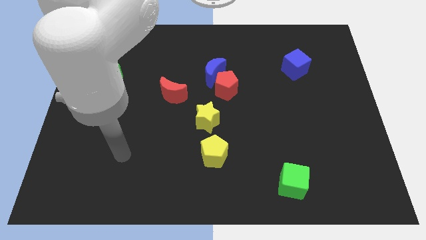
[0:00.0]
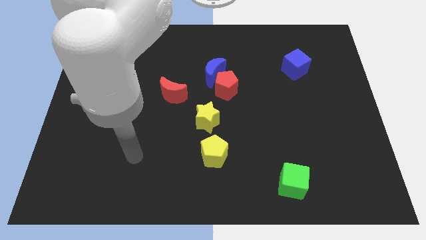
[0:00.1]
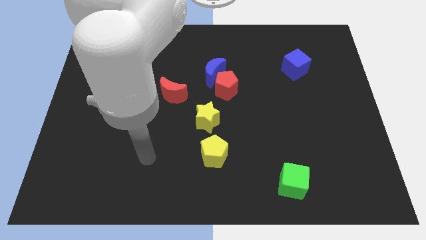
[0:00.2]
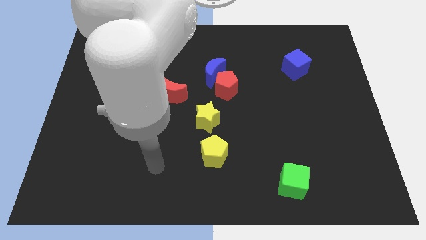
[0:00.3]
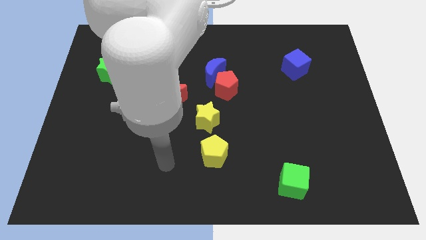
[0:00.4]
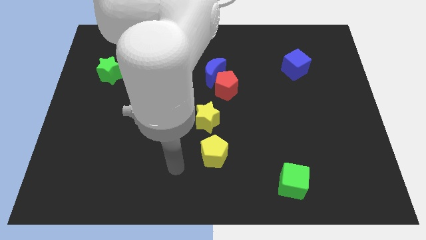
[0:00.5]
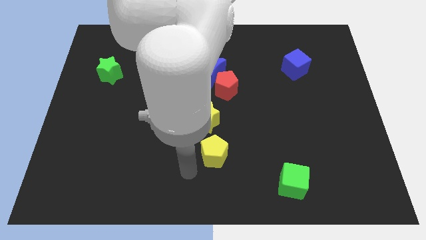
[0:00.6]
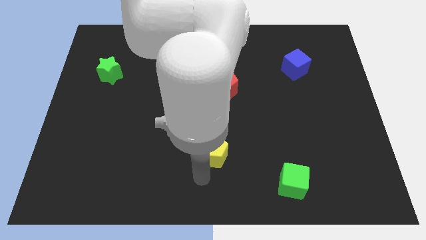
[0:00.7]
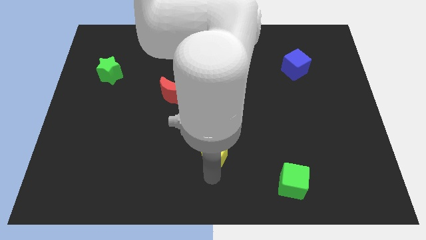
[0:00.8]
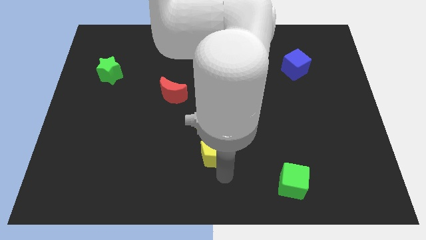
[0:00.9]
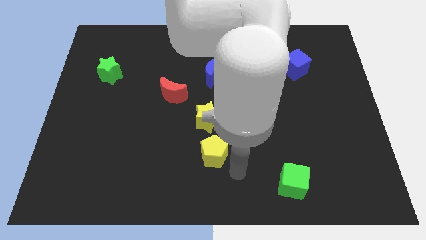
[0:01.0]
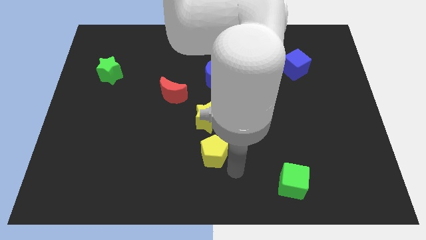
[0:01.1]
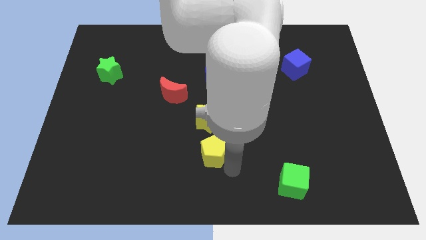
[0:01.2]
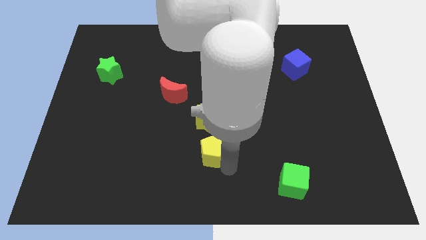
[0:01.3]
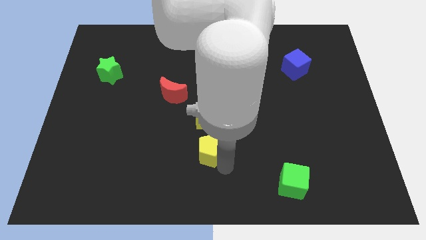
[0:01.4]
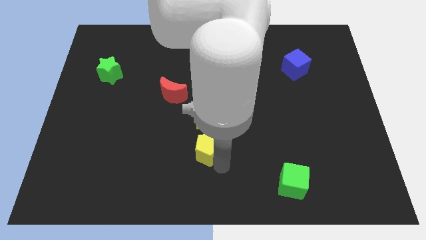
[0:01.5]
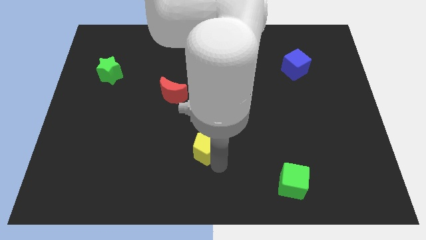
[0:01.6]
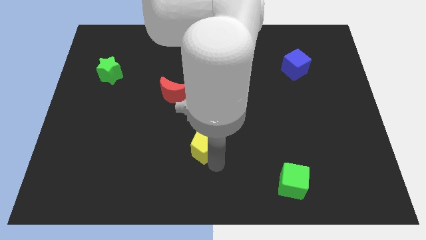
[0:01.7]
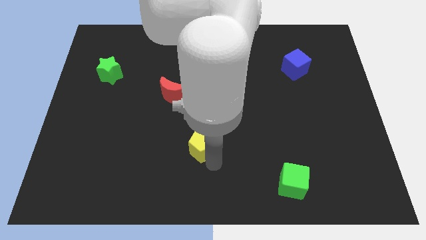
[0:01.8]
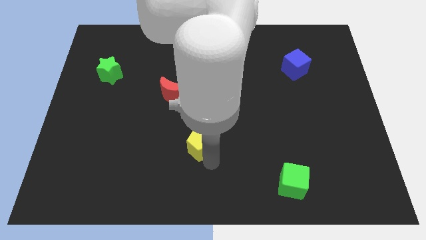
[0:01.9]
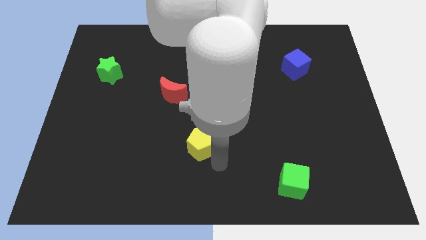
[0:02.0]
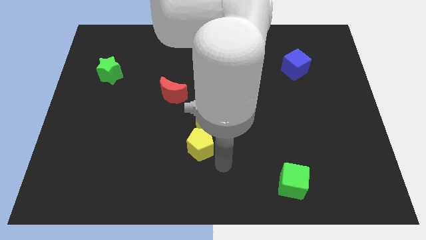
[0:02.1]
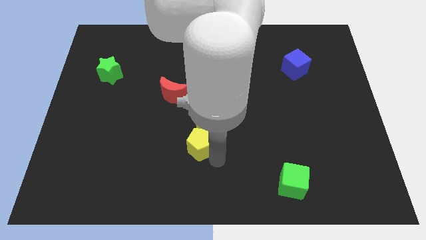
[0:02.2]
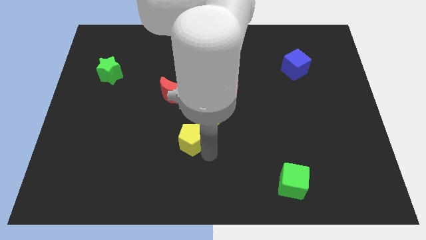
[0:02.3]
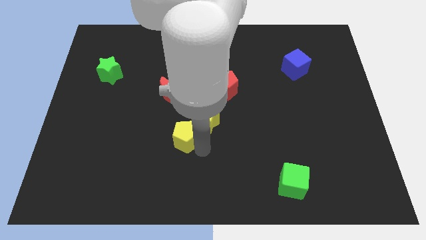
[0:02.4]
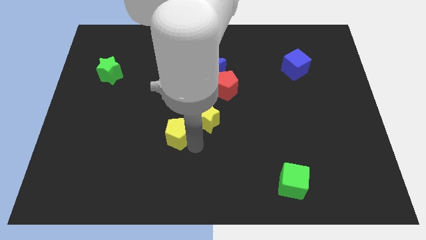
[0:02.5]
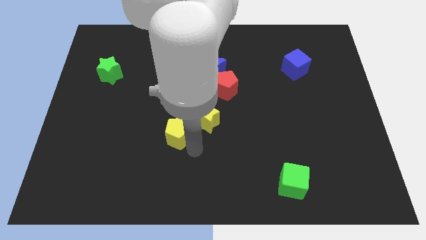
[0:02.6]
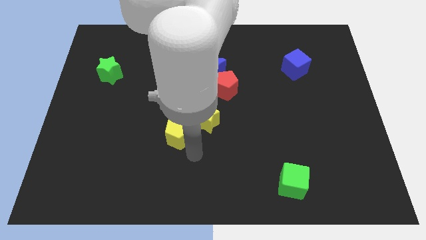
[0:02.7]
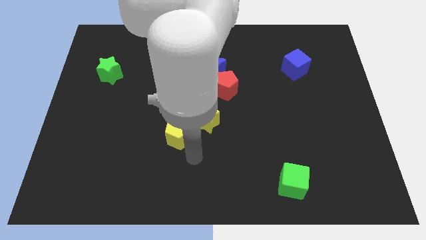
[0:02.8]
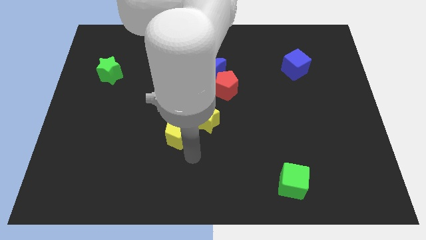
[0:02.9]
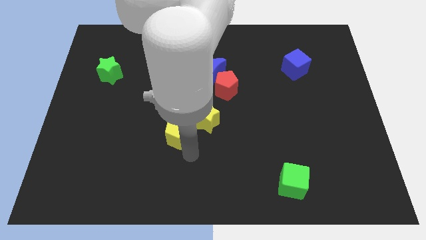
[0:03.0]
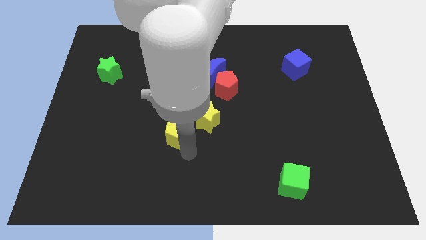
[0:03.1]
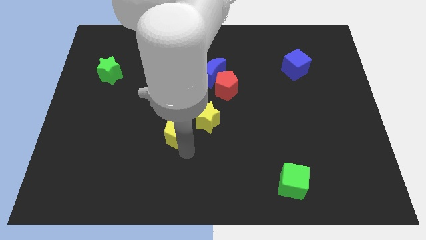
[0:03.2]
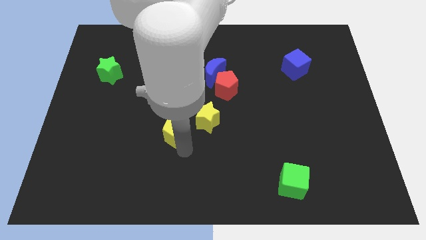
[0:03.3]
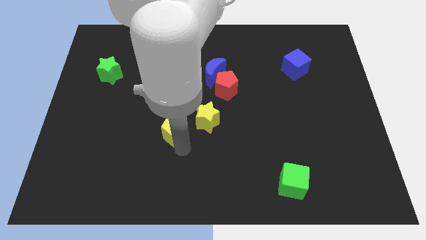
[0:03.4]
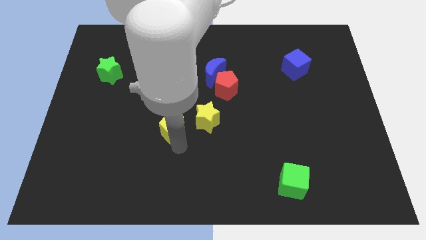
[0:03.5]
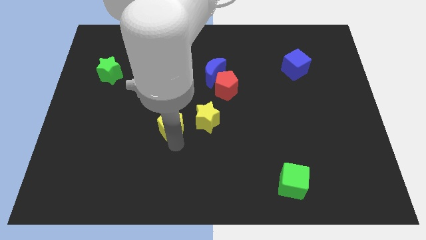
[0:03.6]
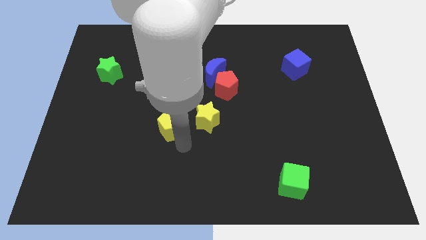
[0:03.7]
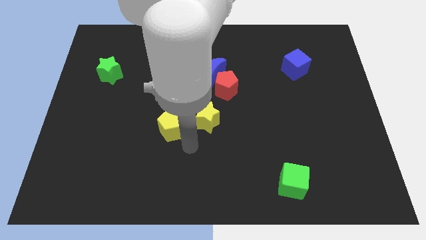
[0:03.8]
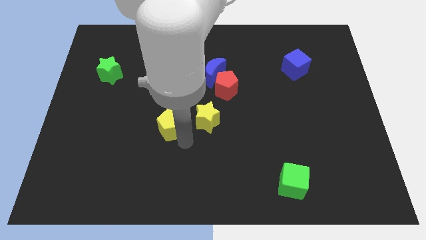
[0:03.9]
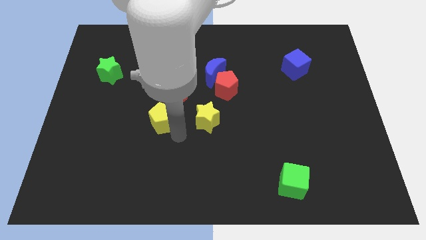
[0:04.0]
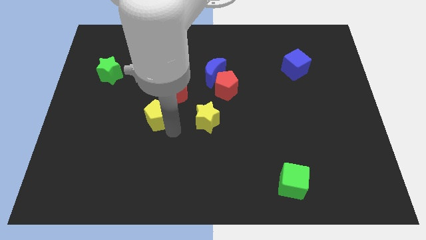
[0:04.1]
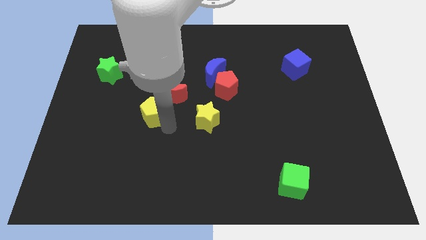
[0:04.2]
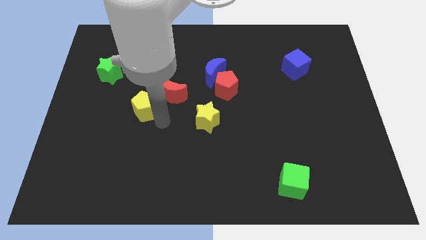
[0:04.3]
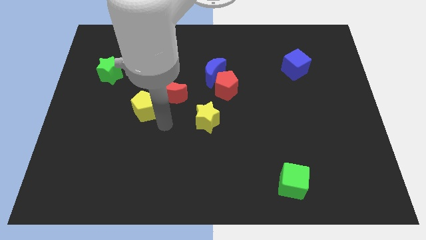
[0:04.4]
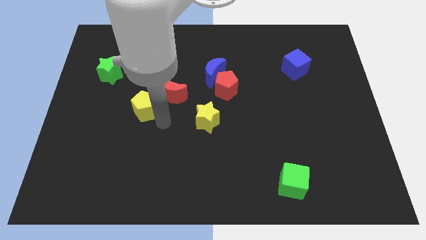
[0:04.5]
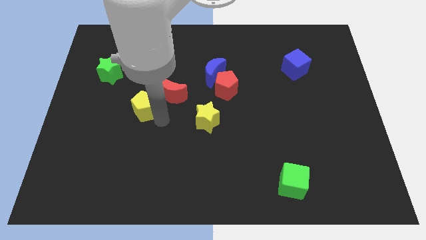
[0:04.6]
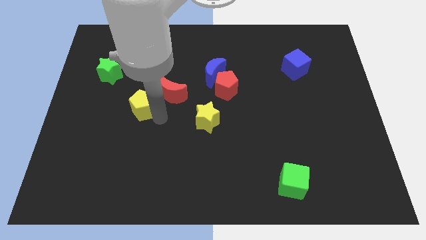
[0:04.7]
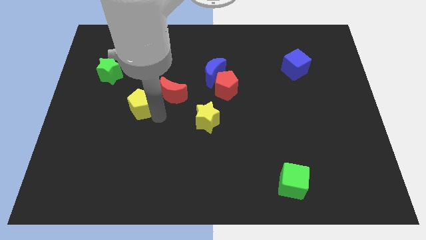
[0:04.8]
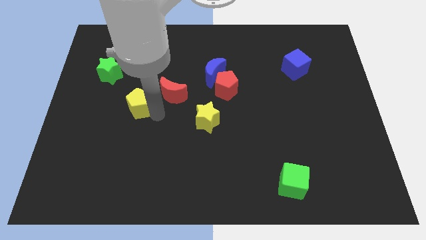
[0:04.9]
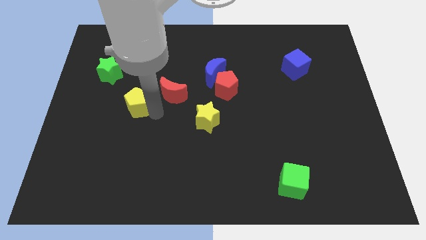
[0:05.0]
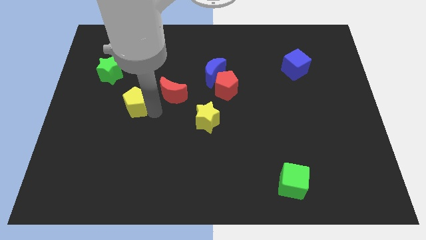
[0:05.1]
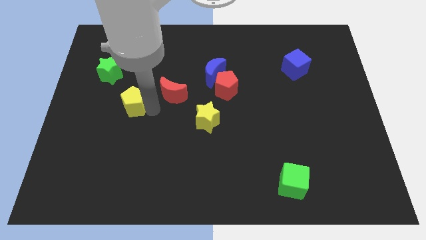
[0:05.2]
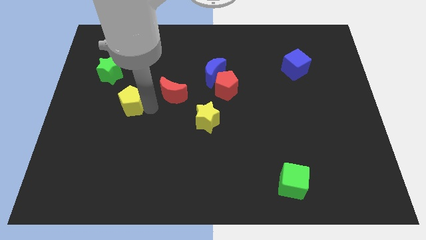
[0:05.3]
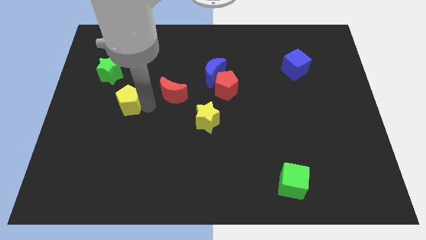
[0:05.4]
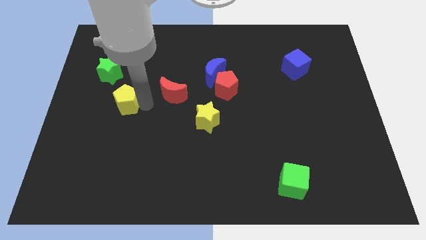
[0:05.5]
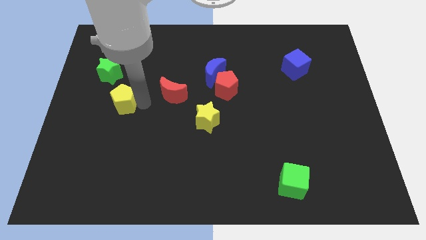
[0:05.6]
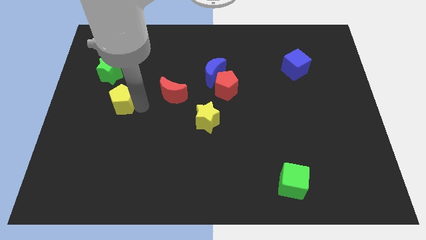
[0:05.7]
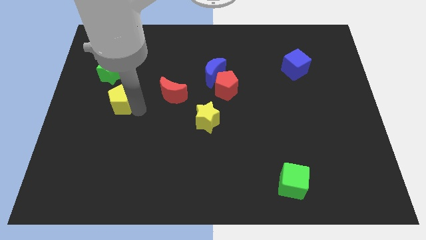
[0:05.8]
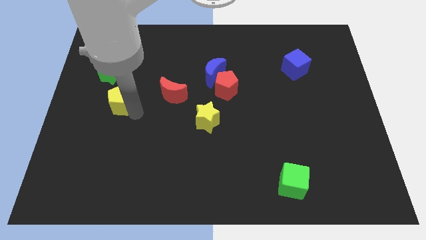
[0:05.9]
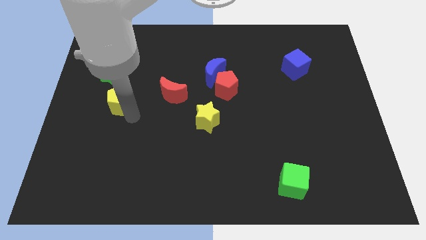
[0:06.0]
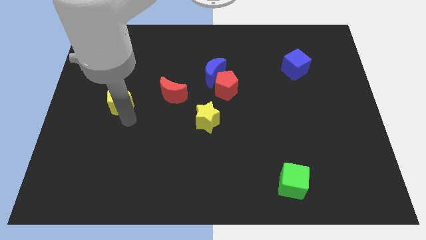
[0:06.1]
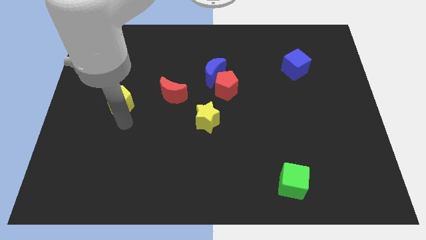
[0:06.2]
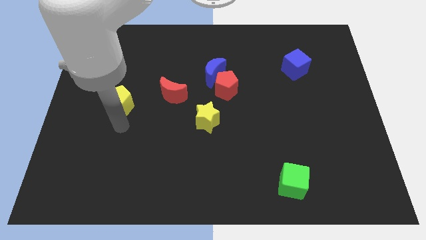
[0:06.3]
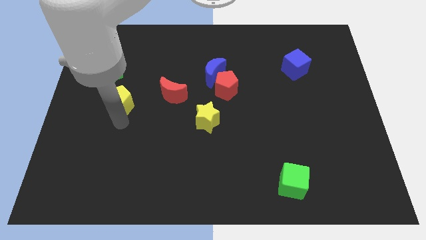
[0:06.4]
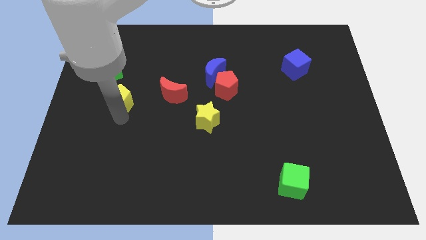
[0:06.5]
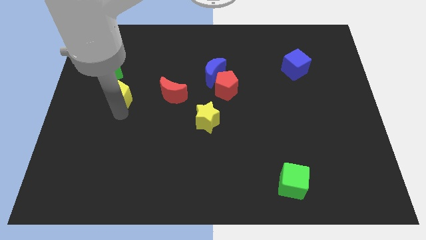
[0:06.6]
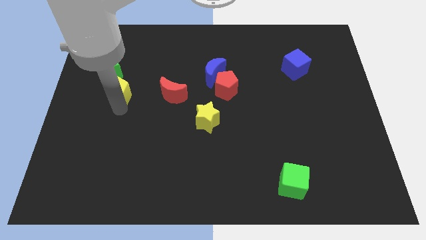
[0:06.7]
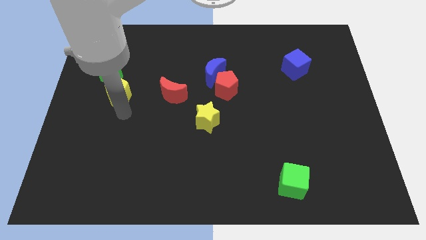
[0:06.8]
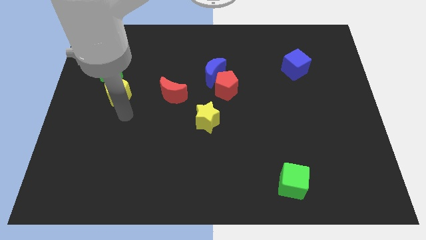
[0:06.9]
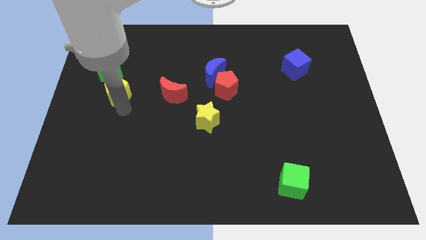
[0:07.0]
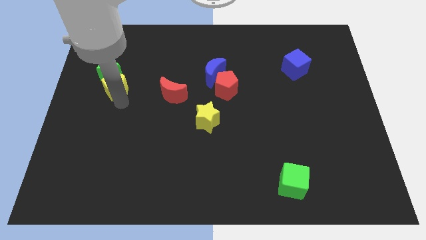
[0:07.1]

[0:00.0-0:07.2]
push the yellow pentagon next to the green star
